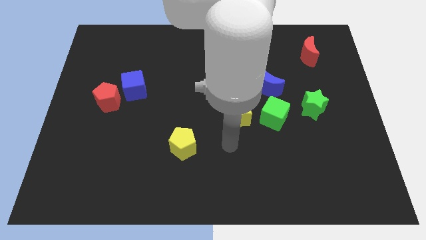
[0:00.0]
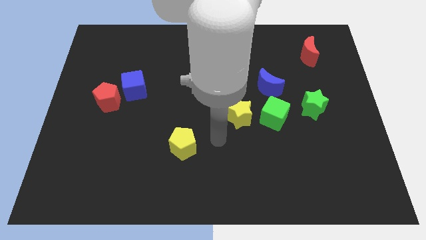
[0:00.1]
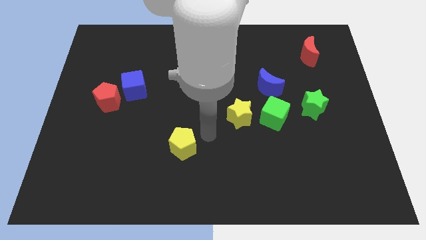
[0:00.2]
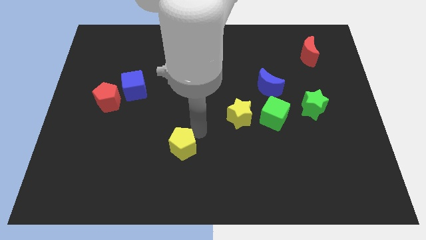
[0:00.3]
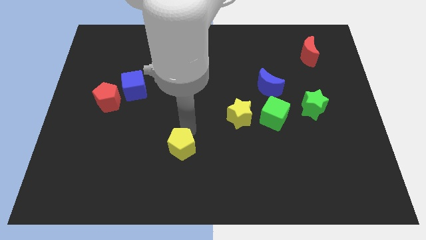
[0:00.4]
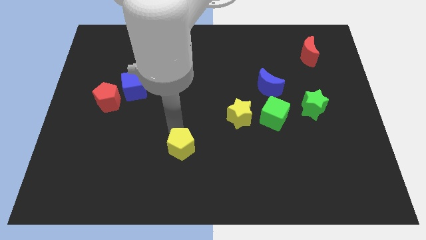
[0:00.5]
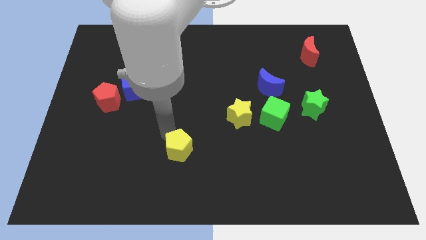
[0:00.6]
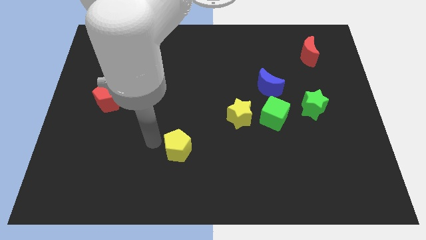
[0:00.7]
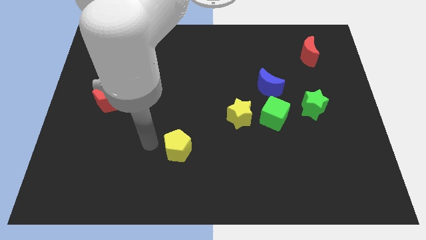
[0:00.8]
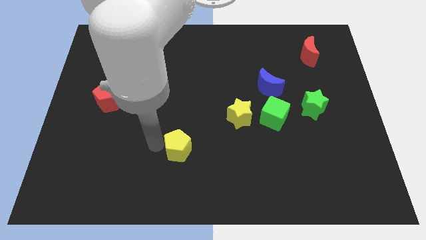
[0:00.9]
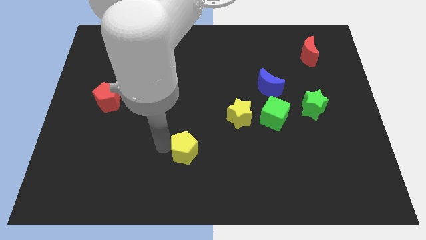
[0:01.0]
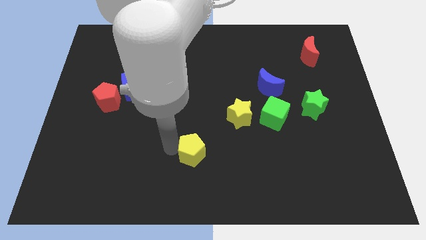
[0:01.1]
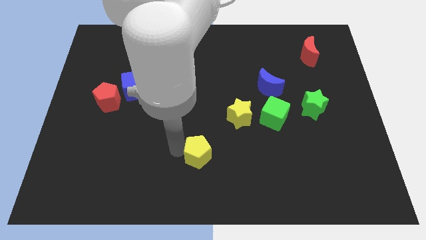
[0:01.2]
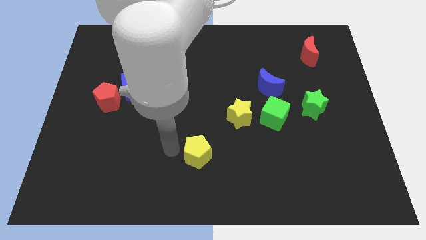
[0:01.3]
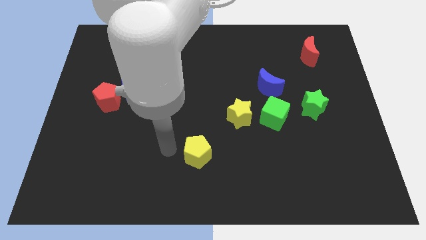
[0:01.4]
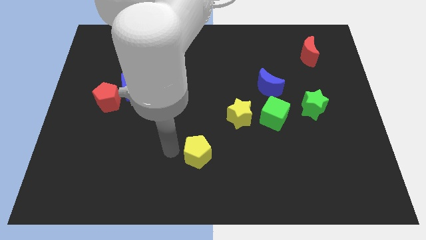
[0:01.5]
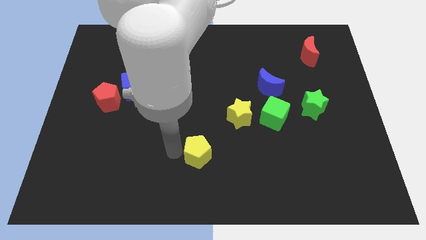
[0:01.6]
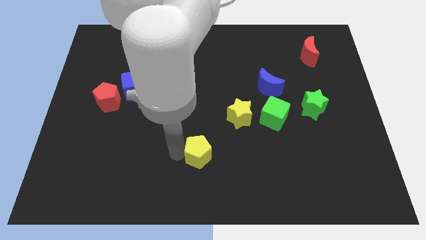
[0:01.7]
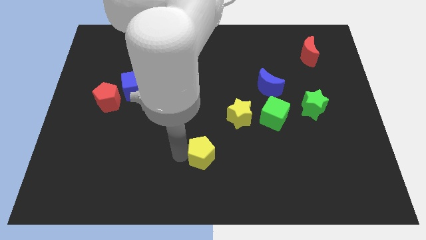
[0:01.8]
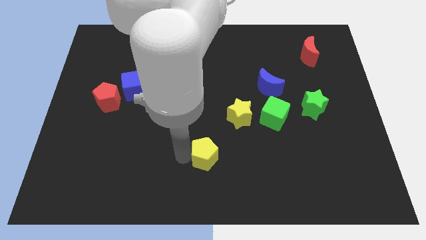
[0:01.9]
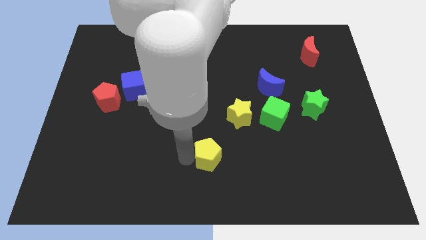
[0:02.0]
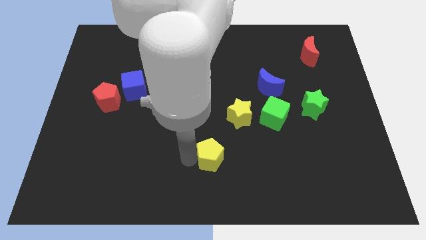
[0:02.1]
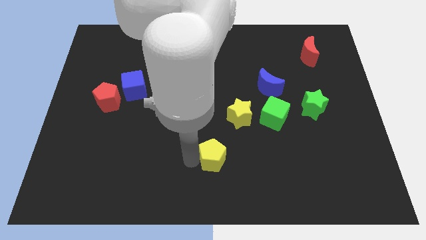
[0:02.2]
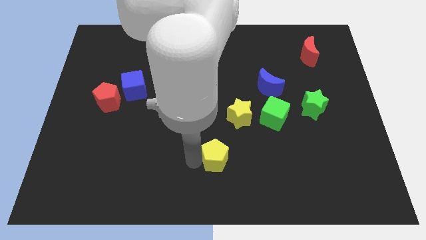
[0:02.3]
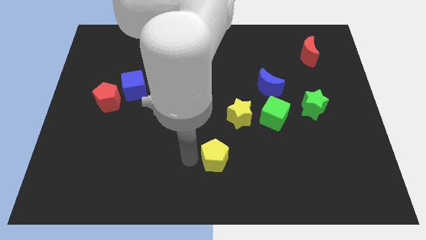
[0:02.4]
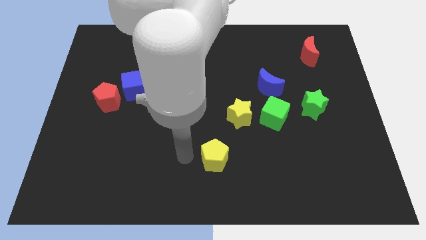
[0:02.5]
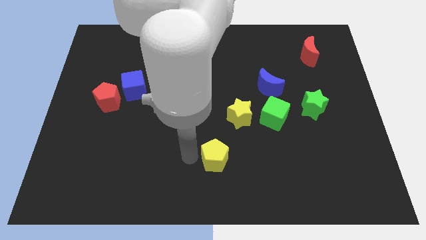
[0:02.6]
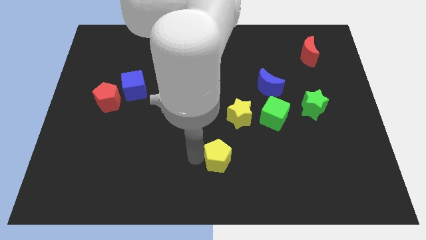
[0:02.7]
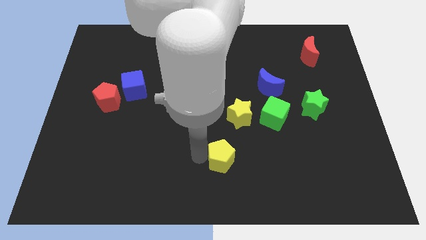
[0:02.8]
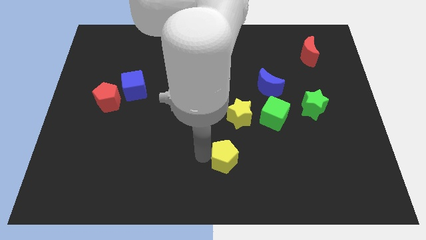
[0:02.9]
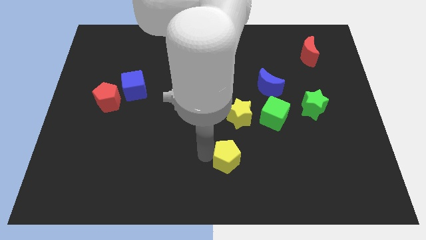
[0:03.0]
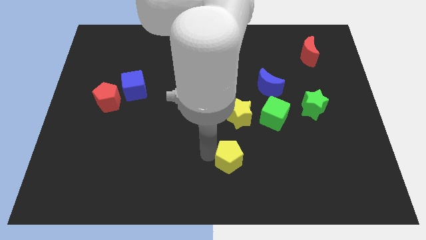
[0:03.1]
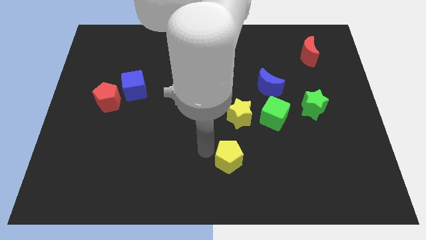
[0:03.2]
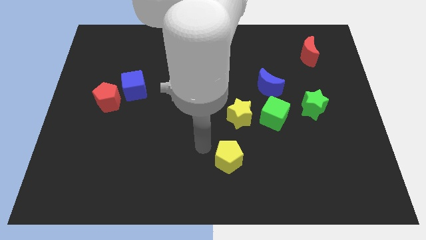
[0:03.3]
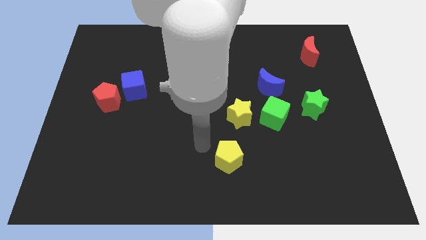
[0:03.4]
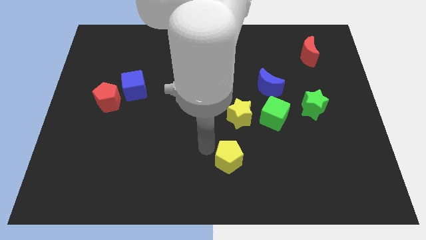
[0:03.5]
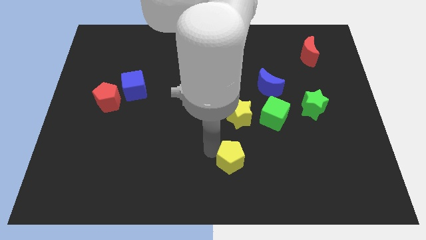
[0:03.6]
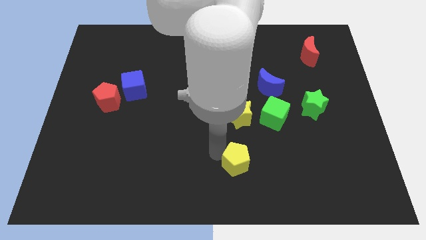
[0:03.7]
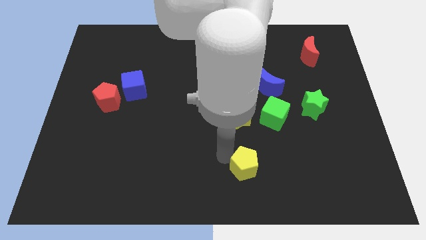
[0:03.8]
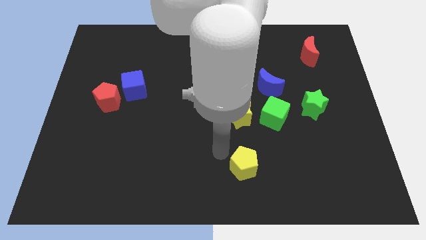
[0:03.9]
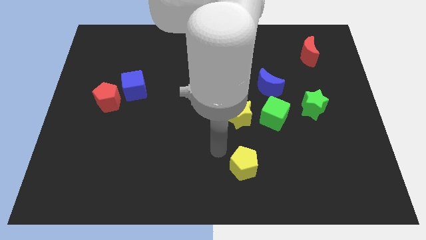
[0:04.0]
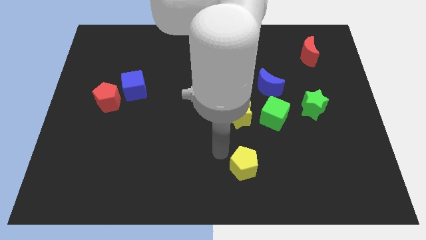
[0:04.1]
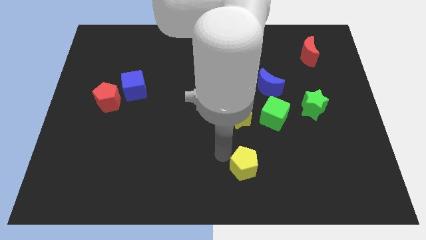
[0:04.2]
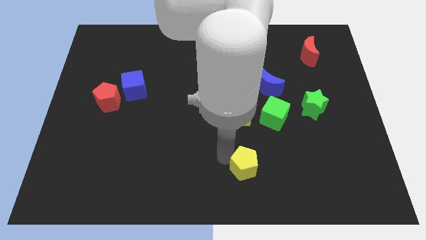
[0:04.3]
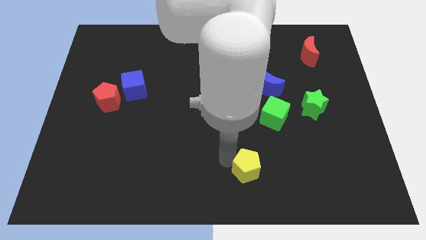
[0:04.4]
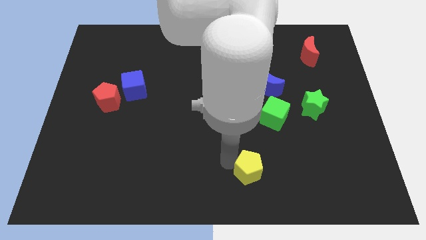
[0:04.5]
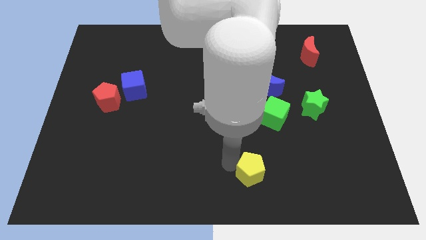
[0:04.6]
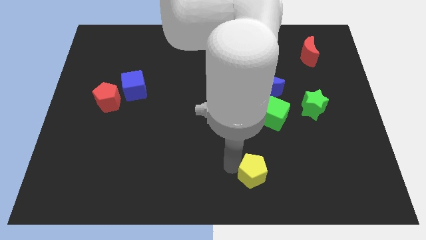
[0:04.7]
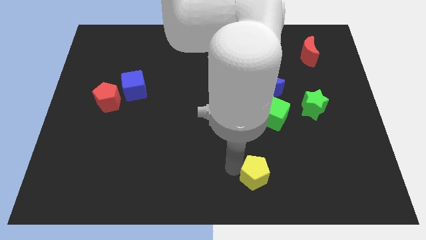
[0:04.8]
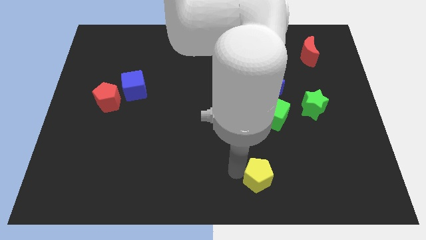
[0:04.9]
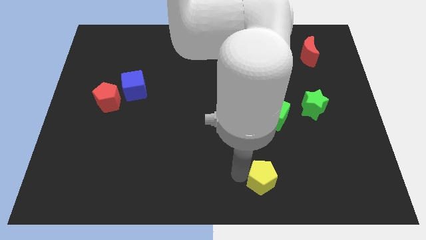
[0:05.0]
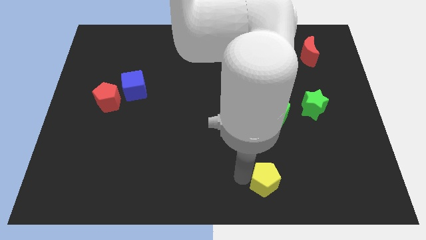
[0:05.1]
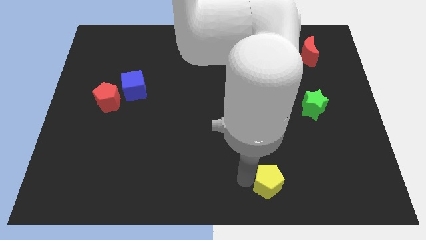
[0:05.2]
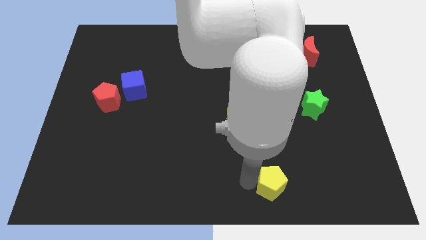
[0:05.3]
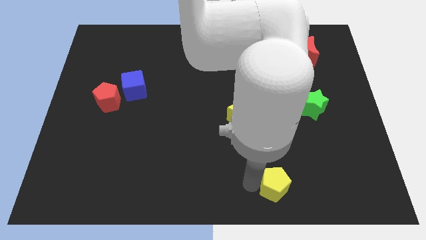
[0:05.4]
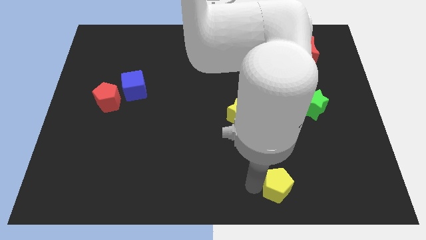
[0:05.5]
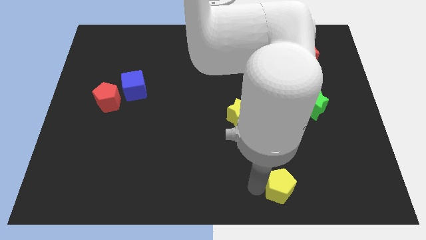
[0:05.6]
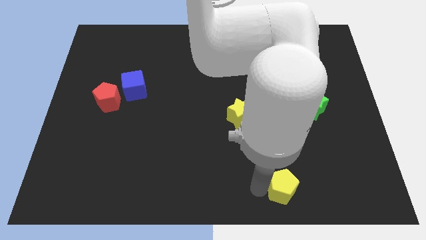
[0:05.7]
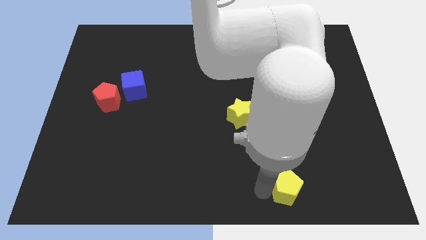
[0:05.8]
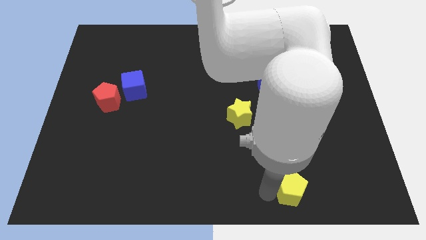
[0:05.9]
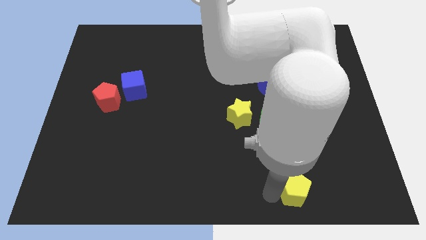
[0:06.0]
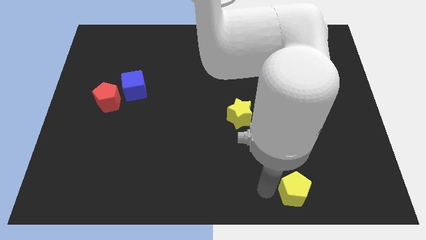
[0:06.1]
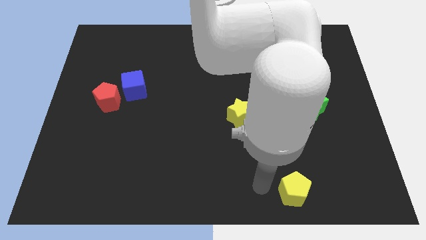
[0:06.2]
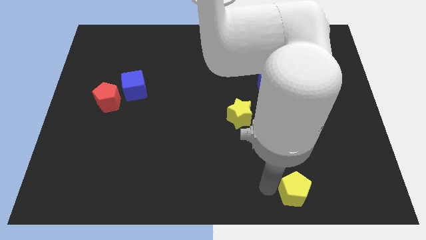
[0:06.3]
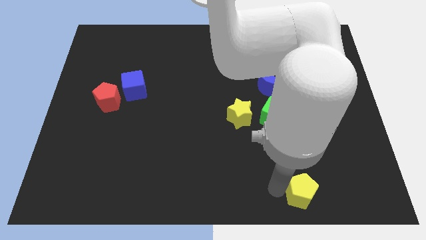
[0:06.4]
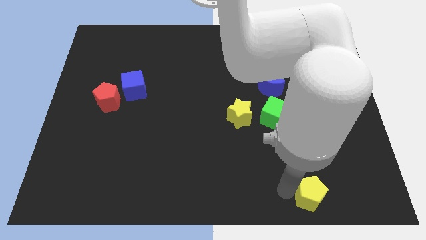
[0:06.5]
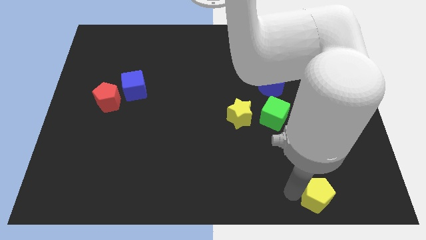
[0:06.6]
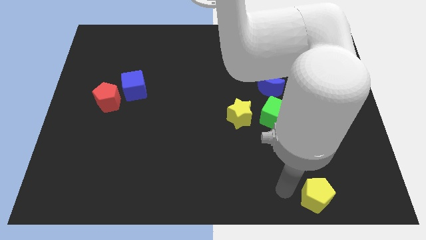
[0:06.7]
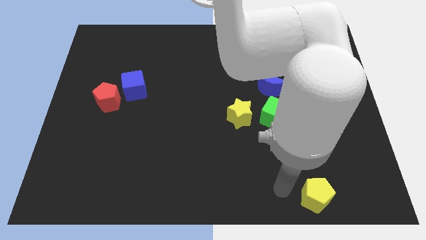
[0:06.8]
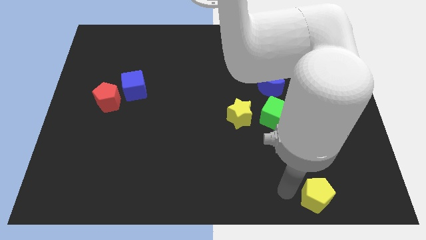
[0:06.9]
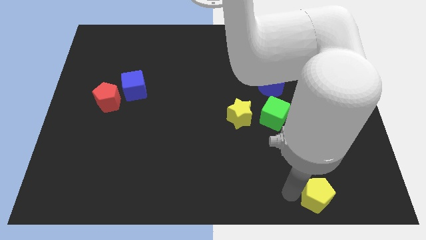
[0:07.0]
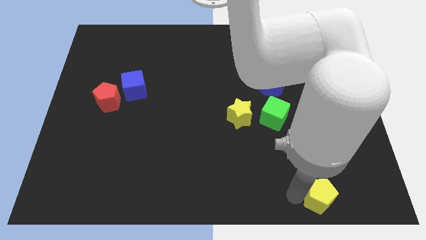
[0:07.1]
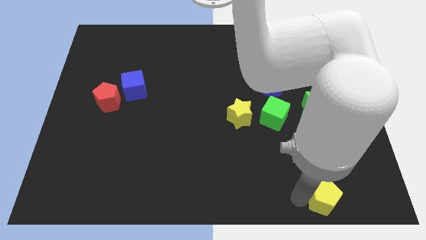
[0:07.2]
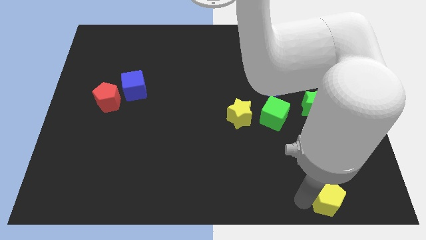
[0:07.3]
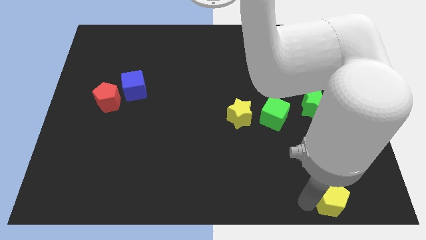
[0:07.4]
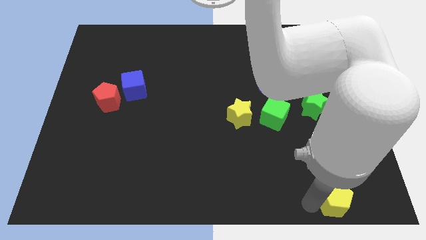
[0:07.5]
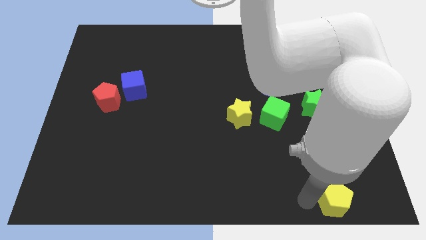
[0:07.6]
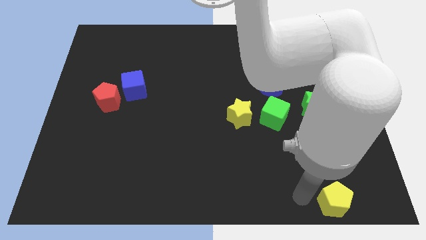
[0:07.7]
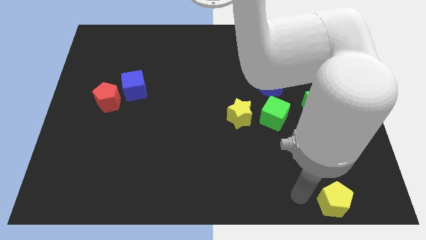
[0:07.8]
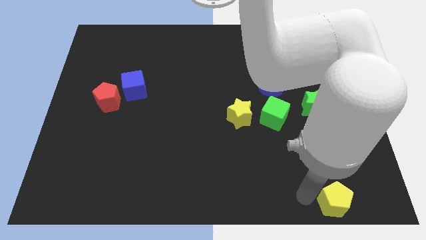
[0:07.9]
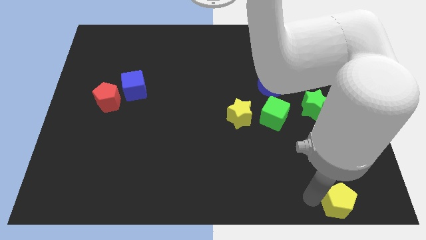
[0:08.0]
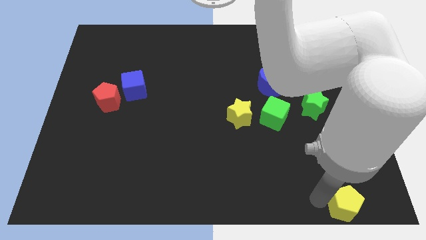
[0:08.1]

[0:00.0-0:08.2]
push the yellow pentagon to the bottom right of the board
